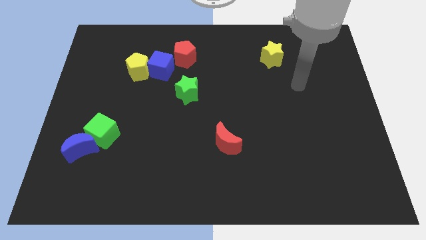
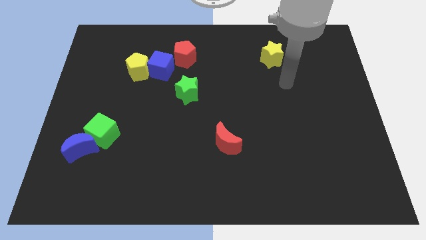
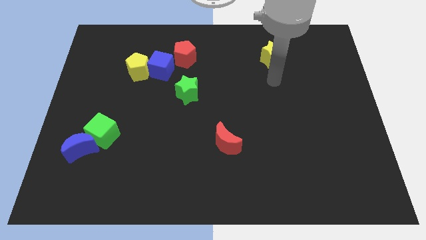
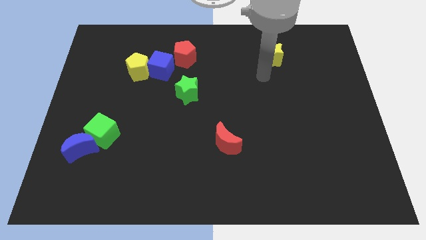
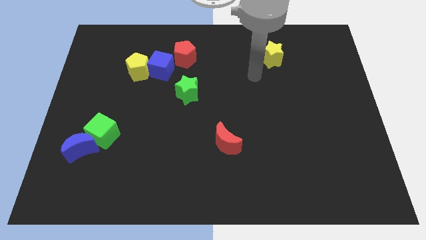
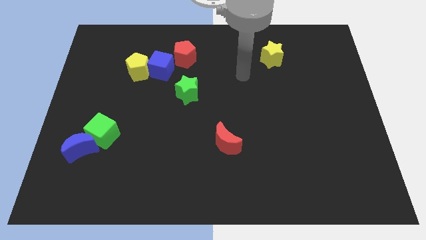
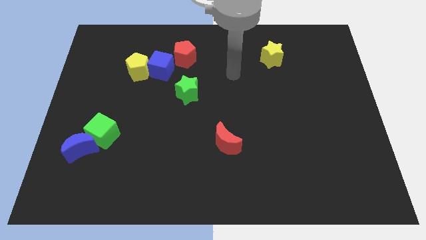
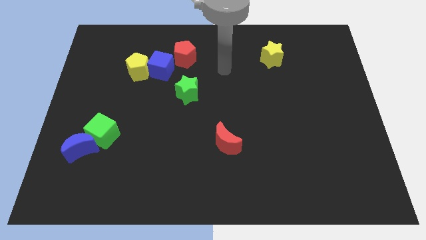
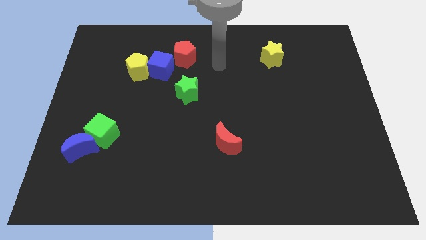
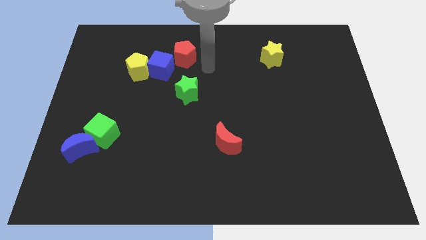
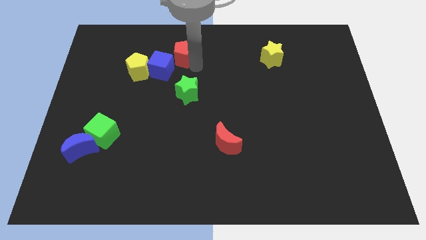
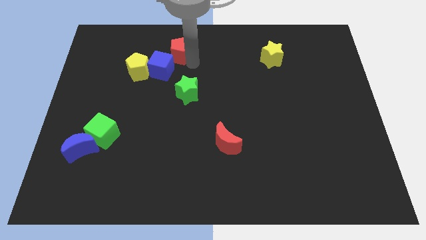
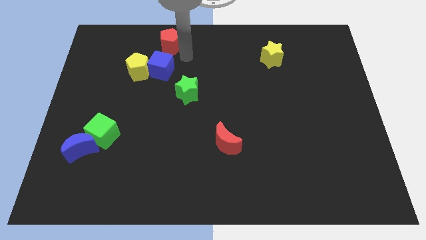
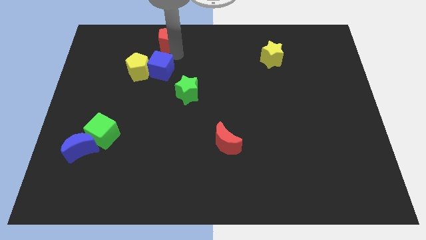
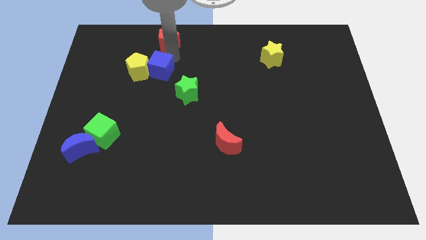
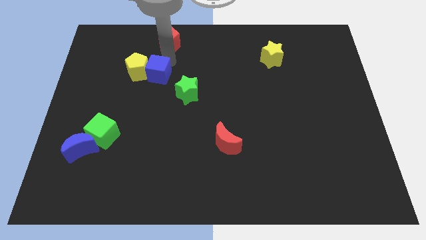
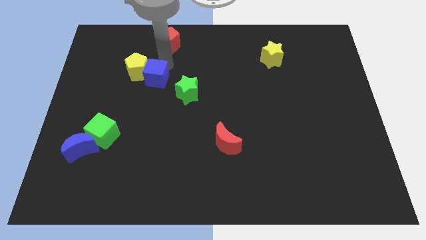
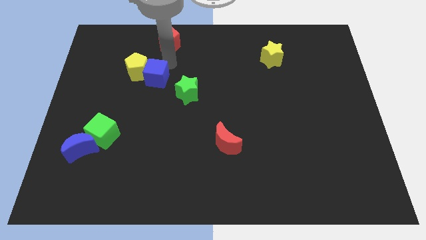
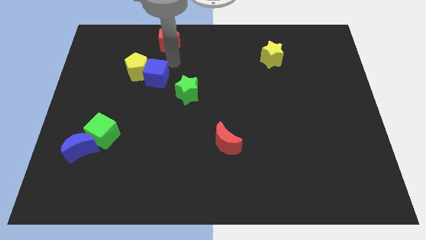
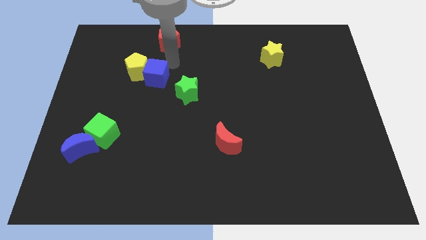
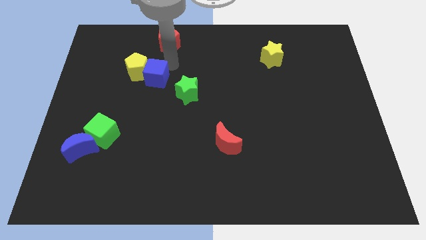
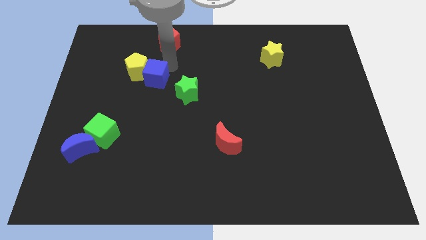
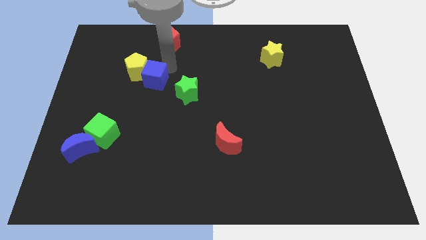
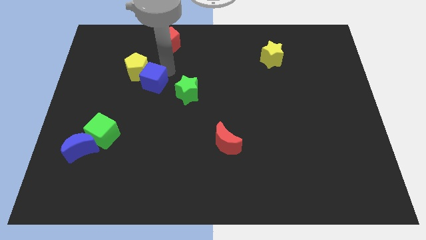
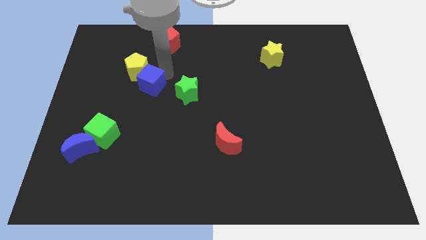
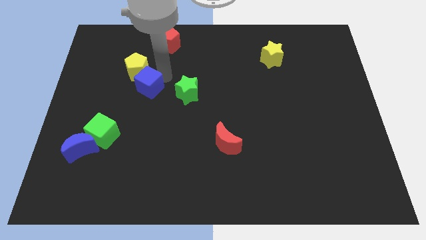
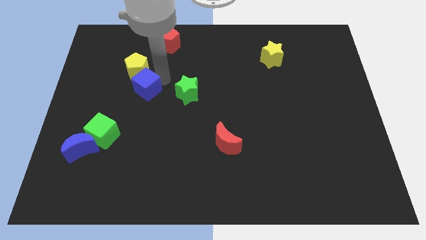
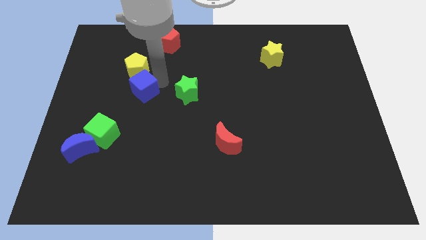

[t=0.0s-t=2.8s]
slightly slide the blue cube downwards and left

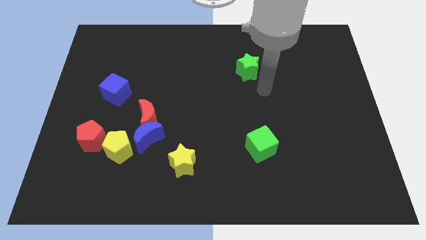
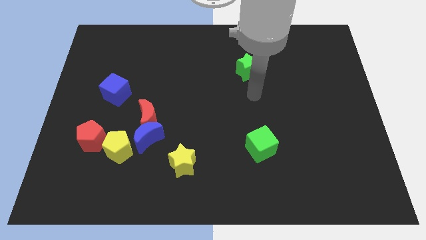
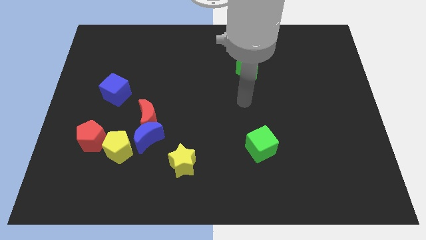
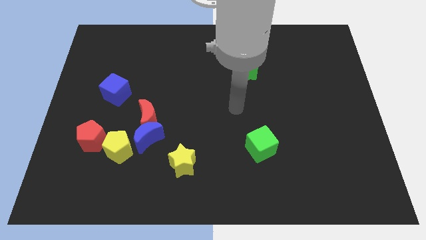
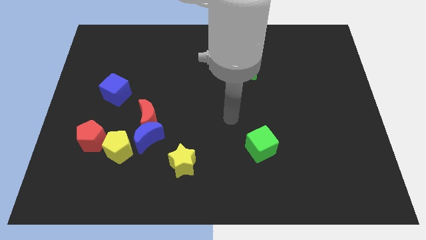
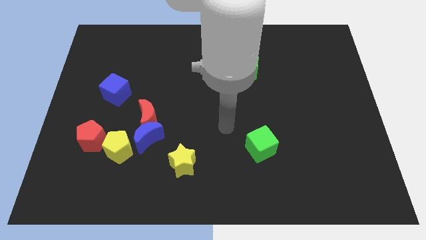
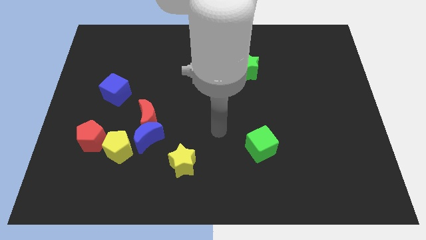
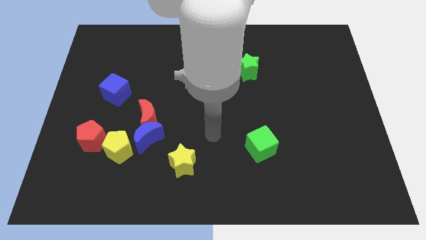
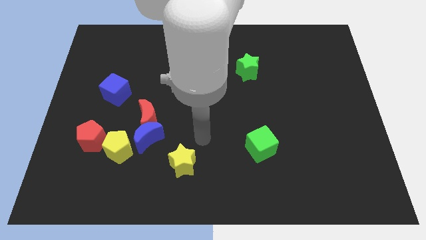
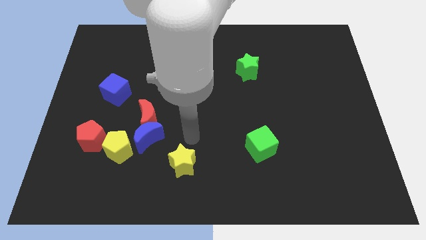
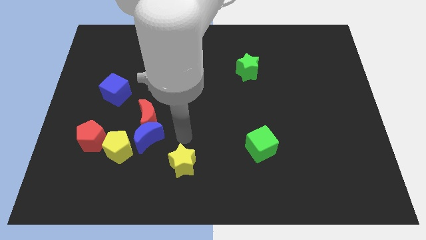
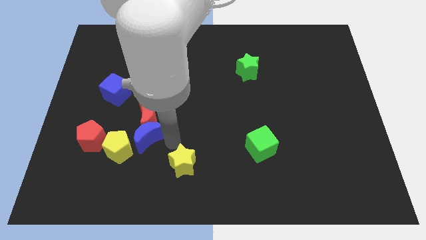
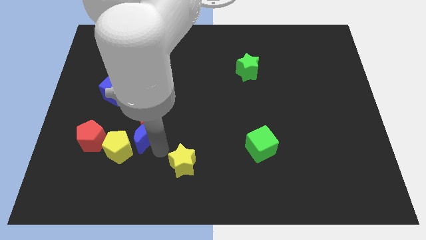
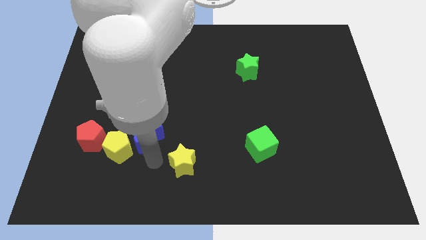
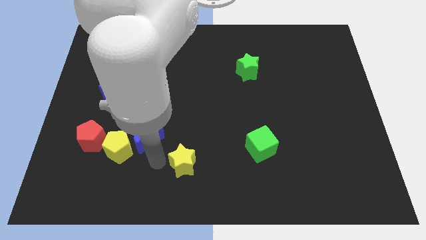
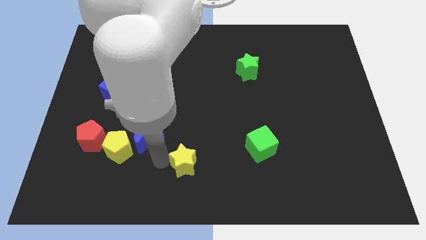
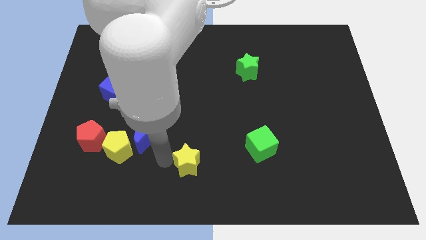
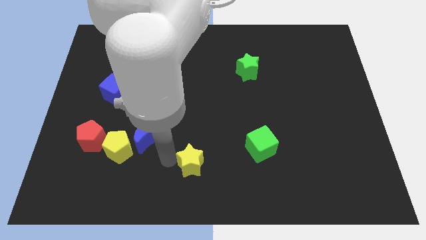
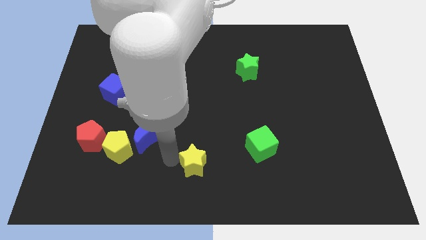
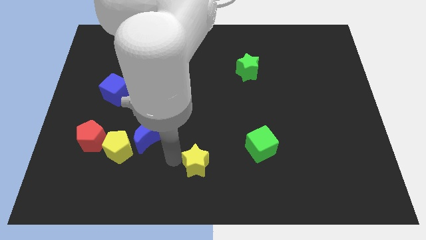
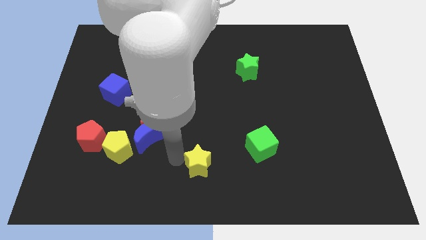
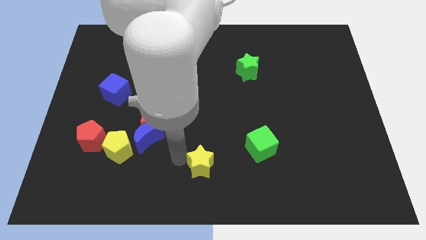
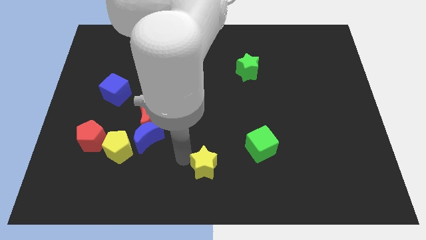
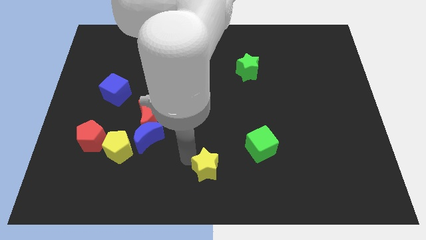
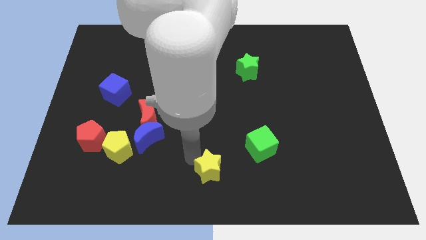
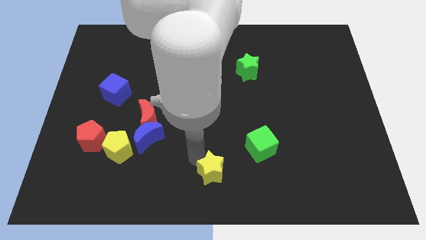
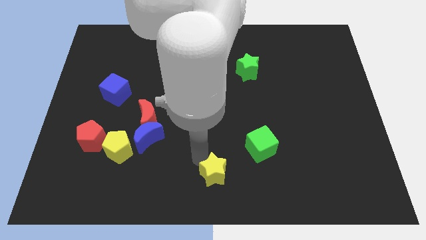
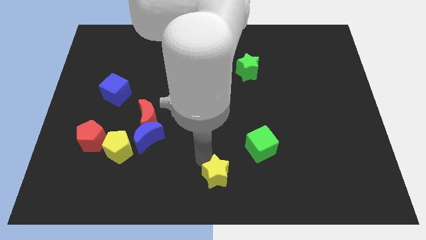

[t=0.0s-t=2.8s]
slide the yellow star right a little

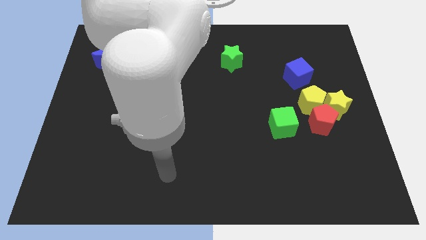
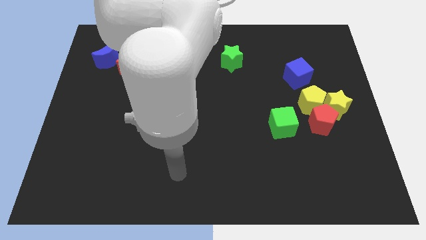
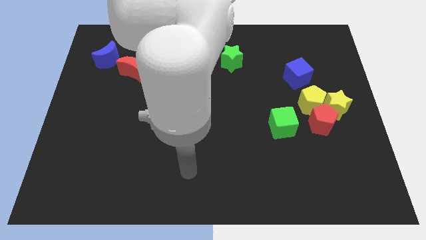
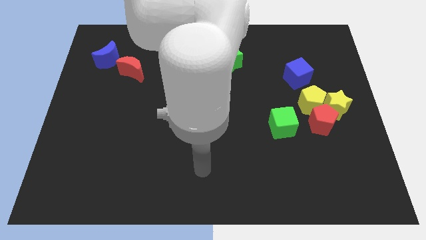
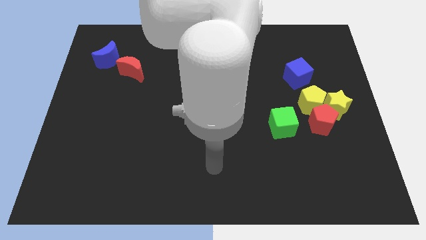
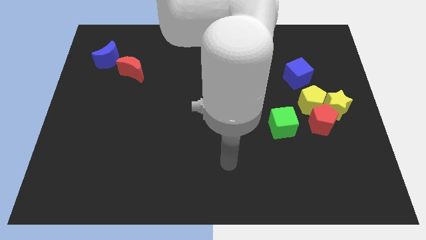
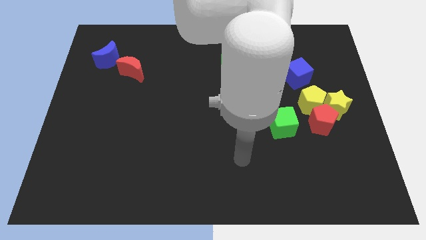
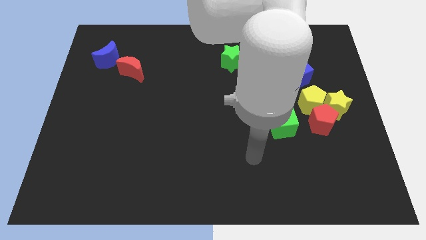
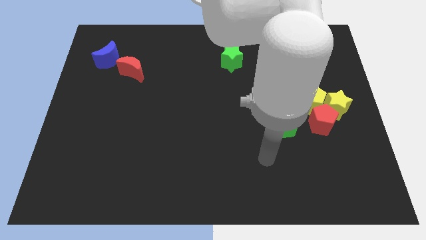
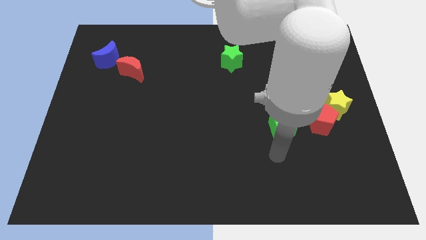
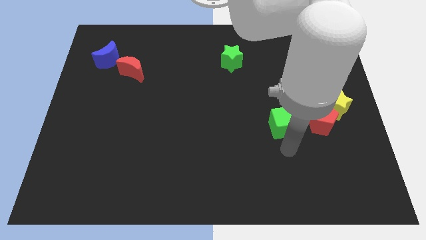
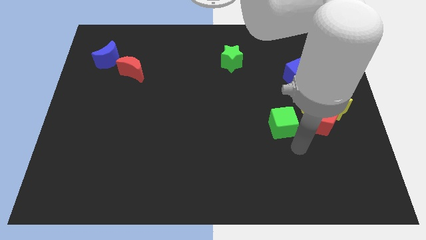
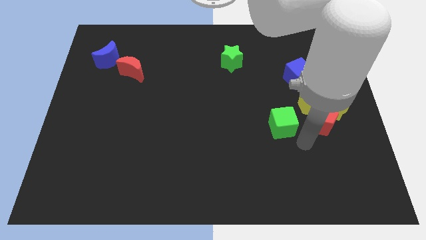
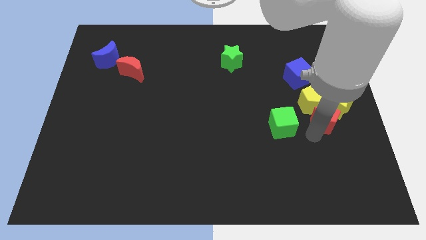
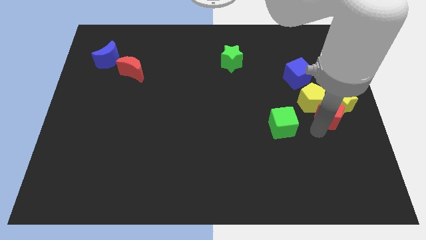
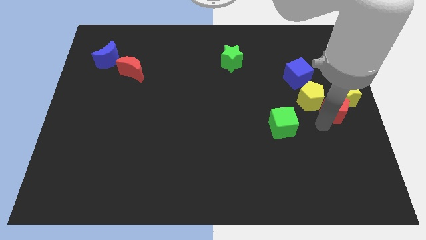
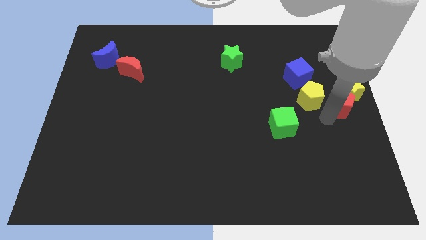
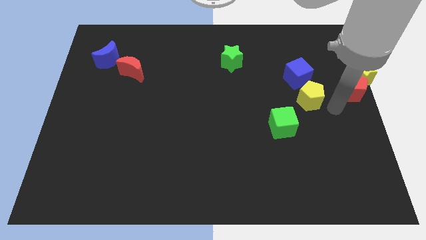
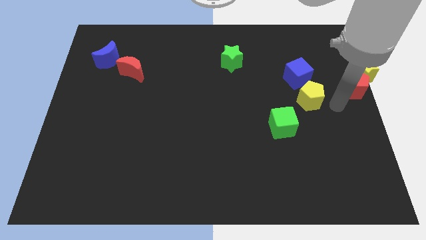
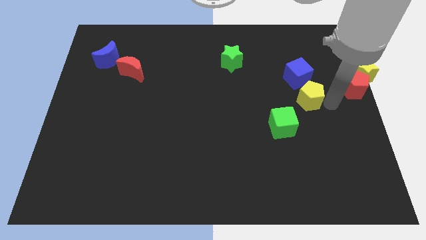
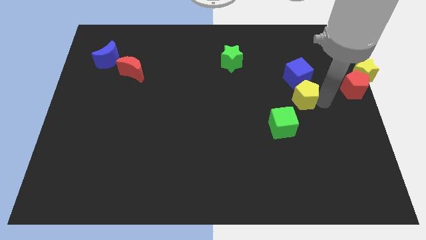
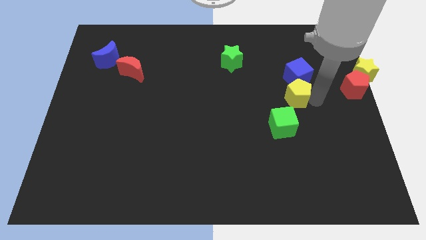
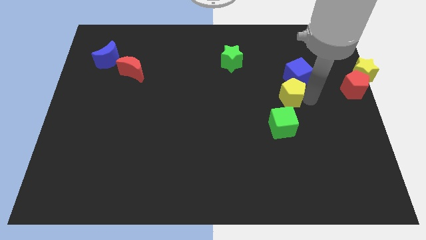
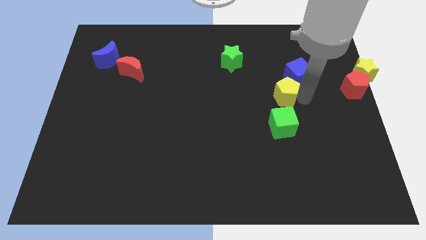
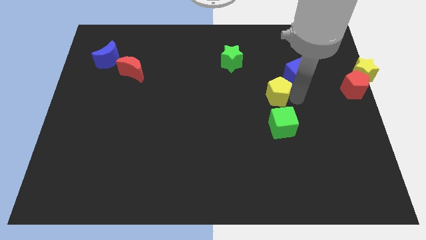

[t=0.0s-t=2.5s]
move the yellow pentagon somewhat up and left diagonally
